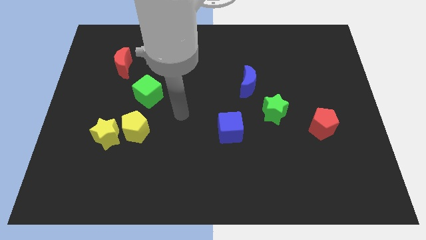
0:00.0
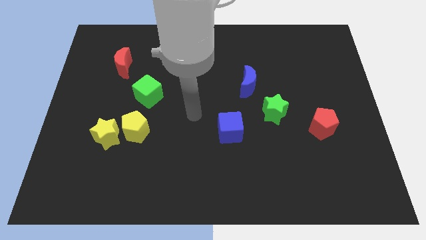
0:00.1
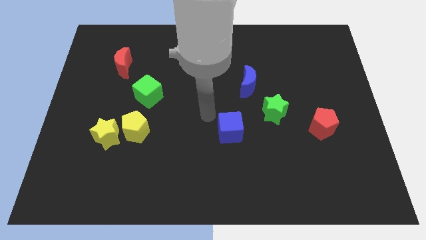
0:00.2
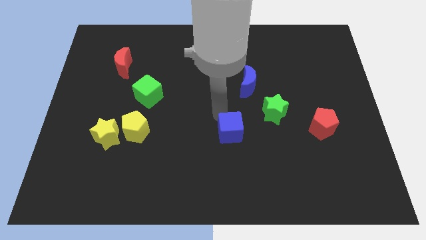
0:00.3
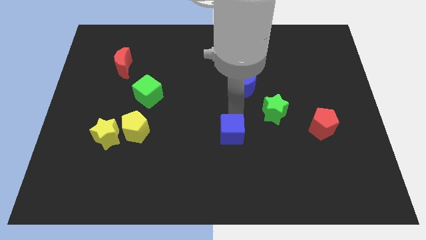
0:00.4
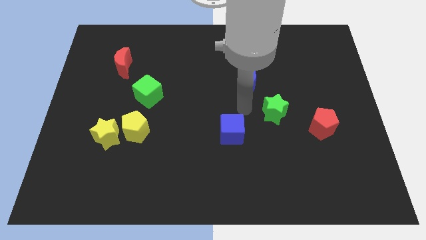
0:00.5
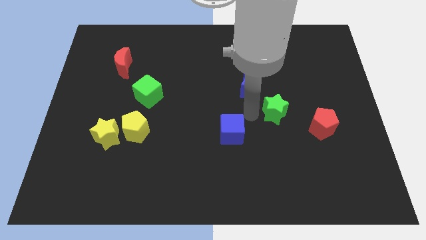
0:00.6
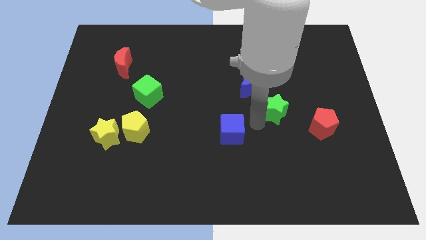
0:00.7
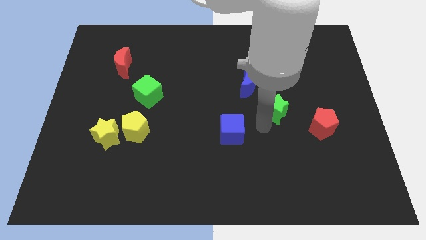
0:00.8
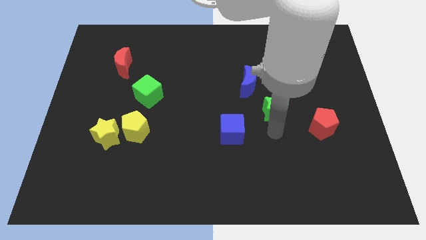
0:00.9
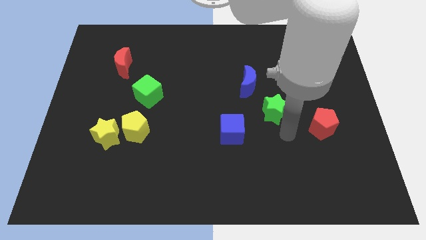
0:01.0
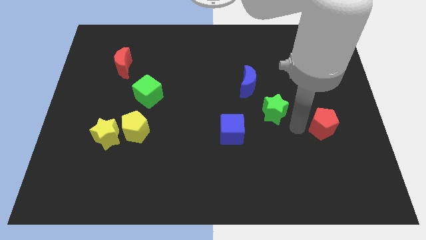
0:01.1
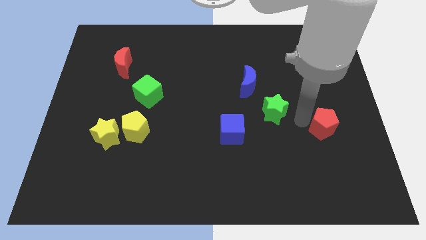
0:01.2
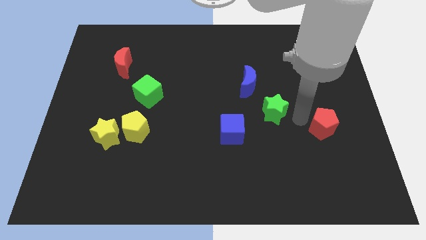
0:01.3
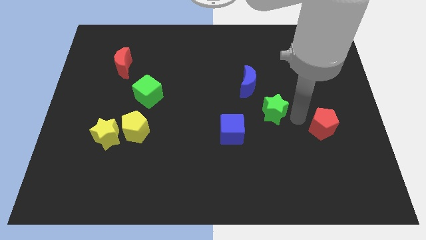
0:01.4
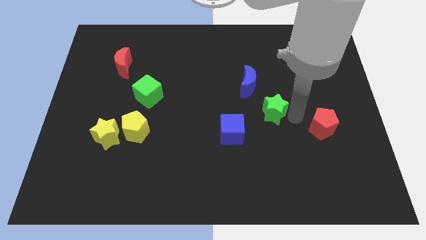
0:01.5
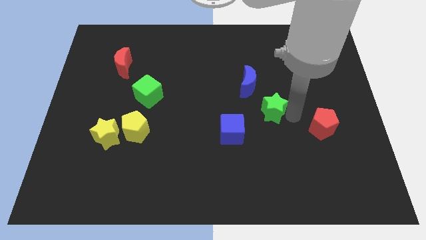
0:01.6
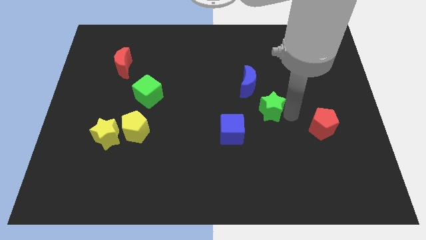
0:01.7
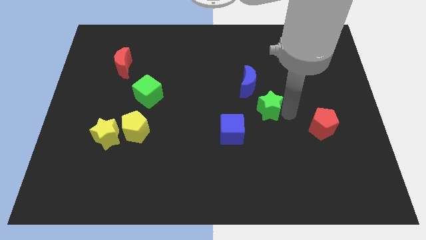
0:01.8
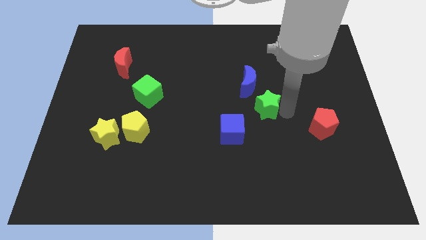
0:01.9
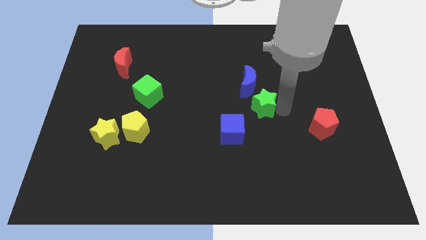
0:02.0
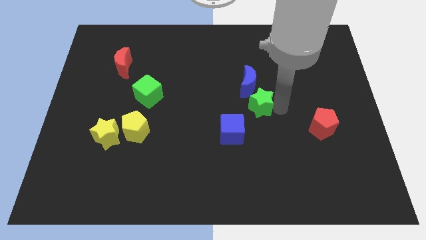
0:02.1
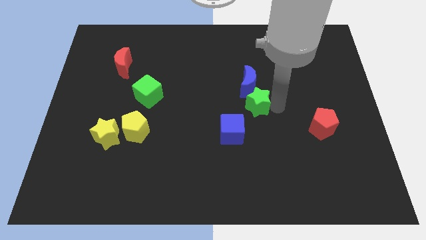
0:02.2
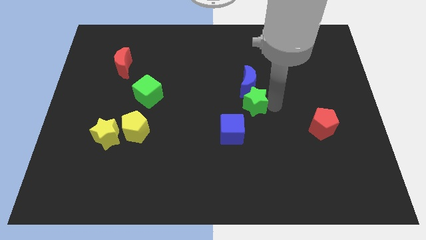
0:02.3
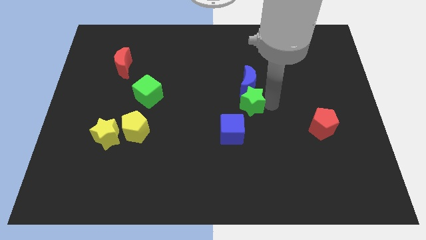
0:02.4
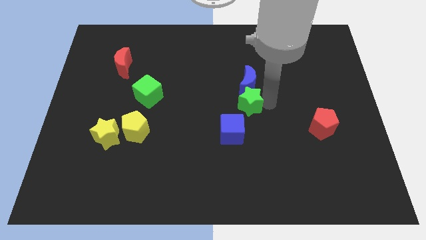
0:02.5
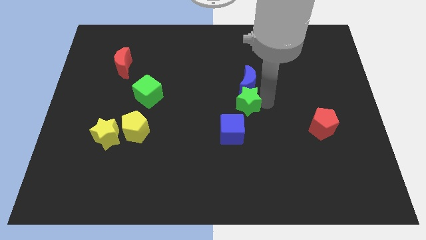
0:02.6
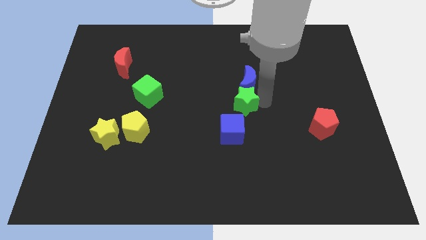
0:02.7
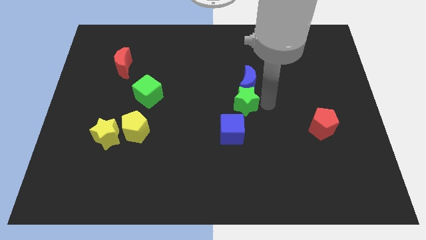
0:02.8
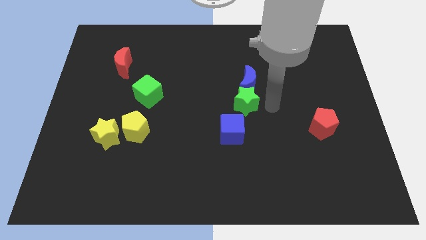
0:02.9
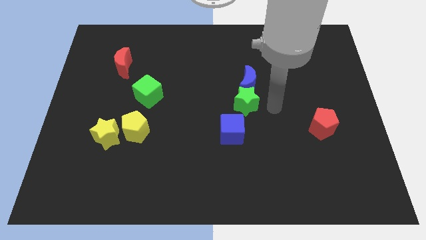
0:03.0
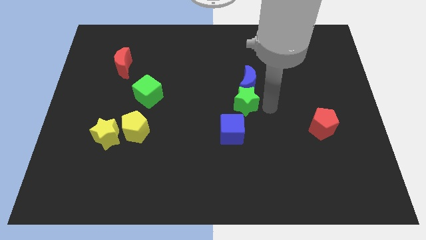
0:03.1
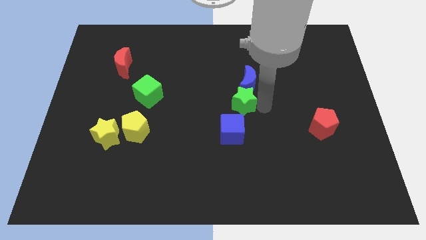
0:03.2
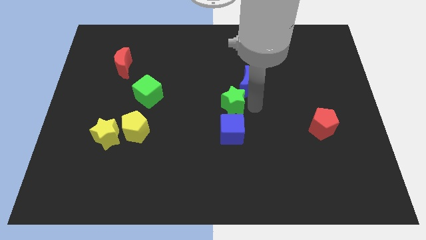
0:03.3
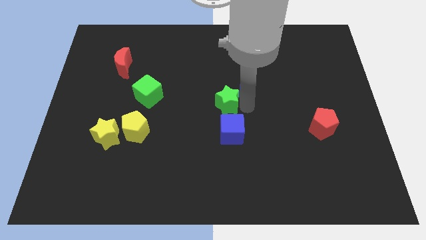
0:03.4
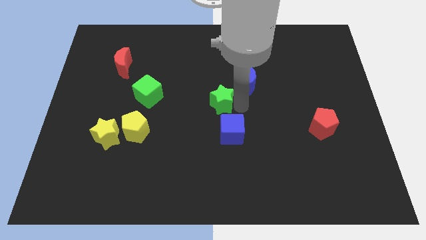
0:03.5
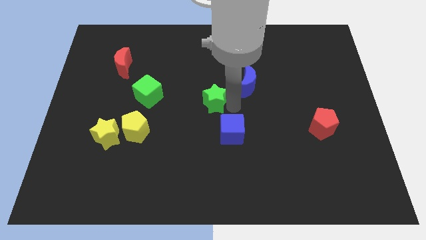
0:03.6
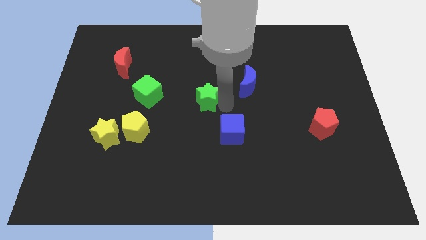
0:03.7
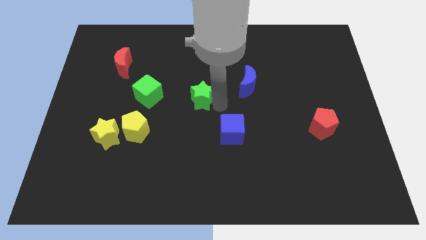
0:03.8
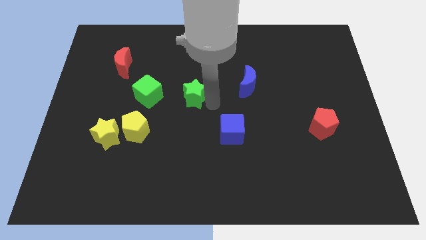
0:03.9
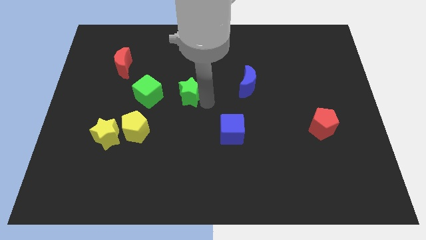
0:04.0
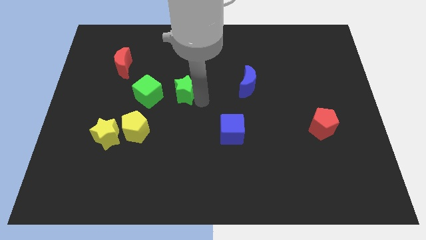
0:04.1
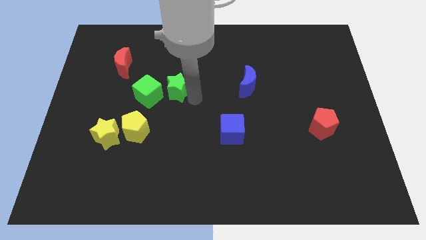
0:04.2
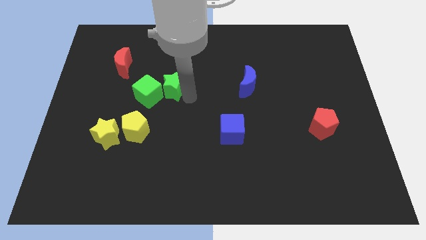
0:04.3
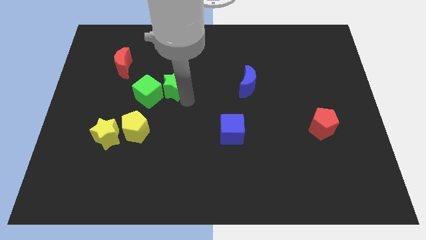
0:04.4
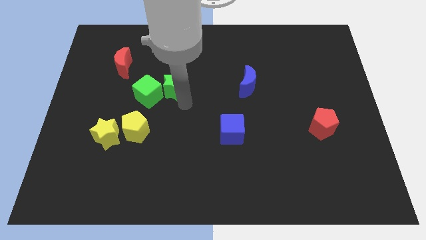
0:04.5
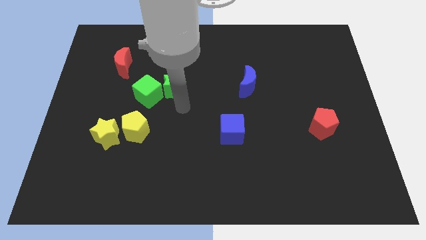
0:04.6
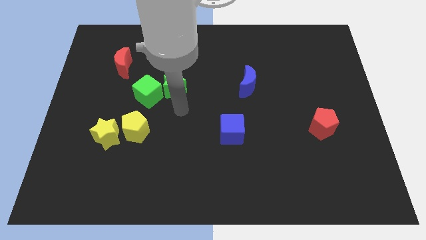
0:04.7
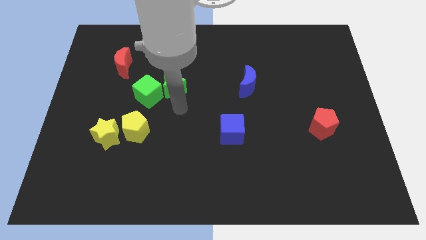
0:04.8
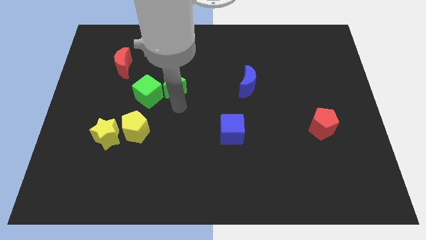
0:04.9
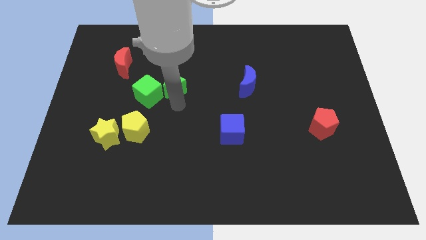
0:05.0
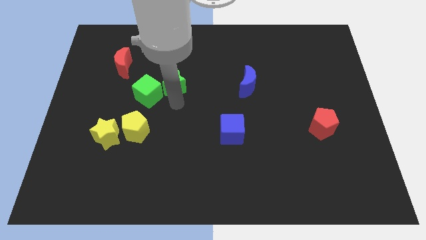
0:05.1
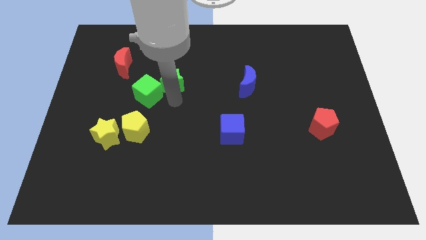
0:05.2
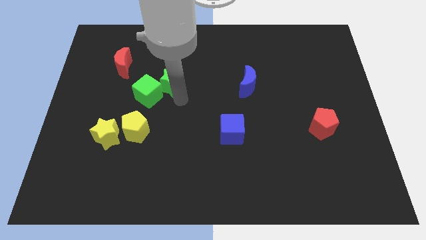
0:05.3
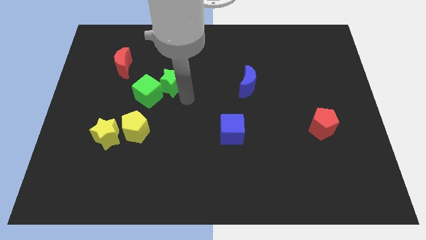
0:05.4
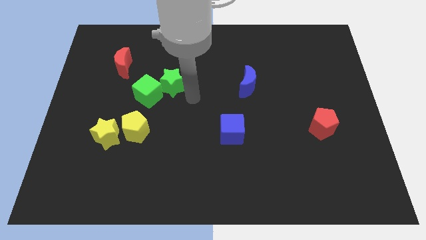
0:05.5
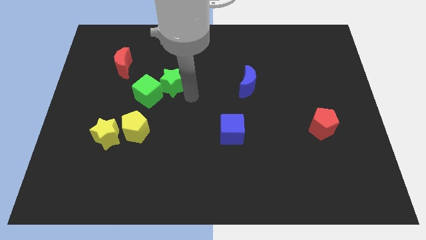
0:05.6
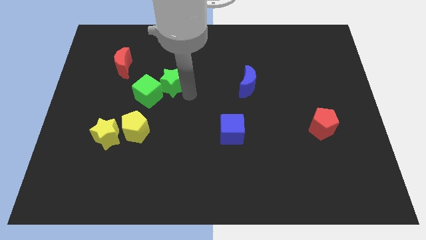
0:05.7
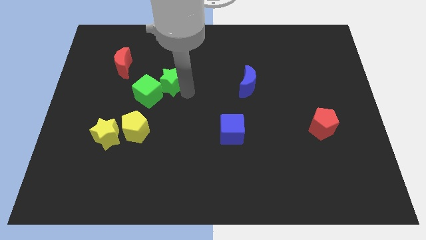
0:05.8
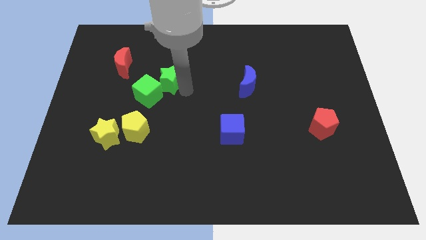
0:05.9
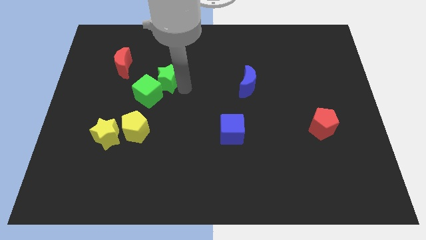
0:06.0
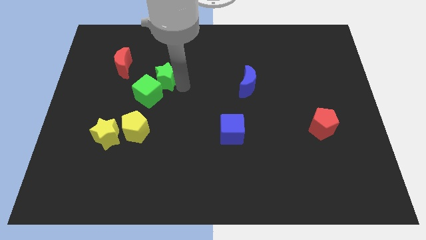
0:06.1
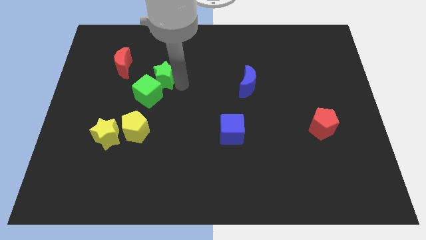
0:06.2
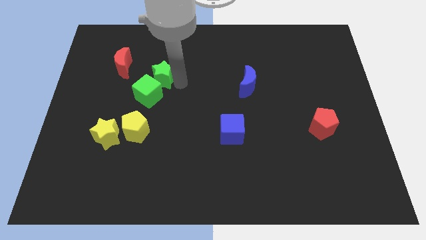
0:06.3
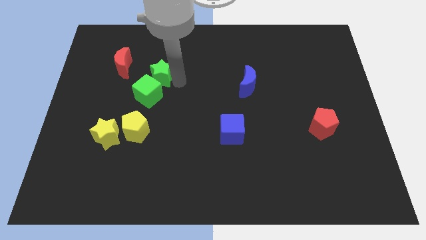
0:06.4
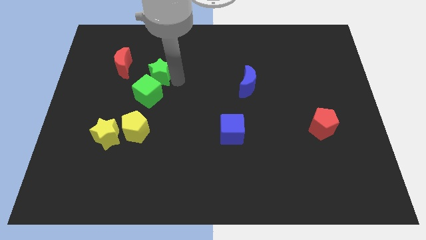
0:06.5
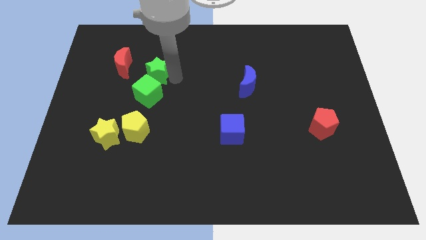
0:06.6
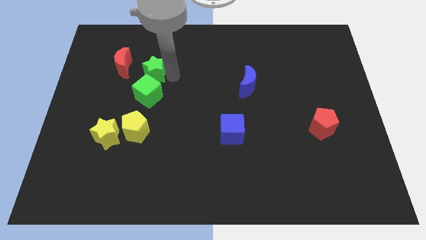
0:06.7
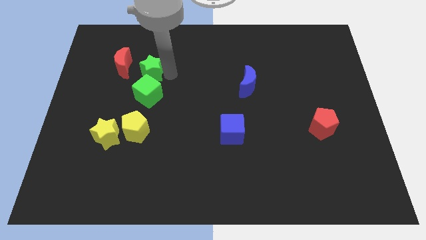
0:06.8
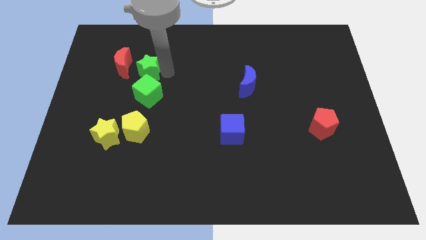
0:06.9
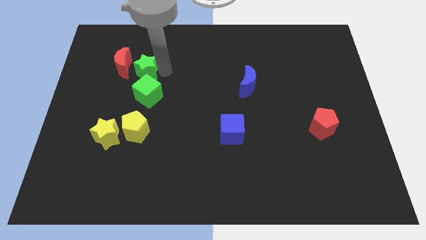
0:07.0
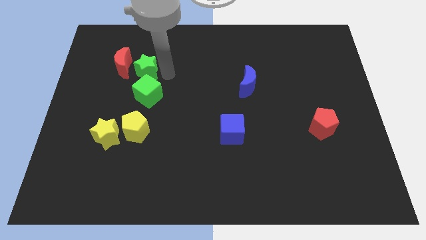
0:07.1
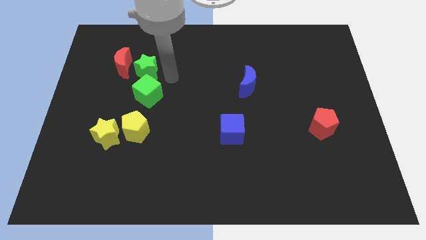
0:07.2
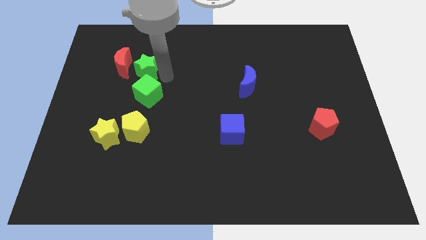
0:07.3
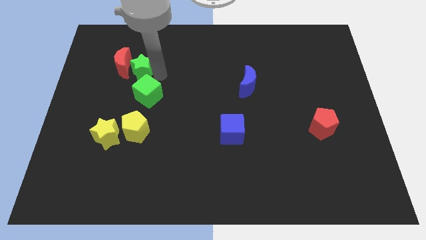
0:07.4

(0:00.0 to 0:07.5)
move the green star to the red moon

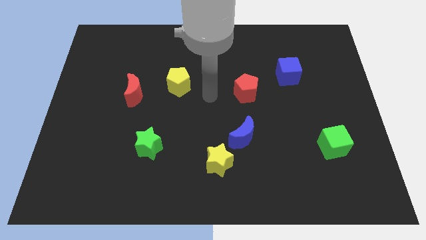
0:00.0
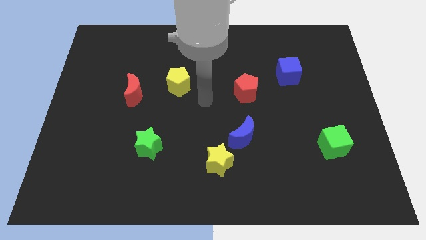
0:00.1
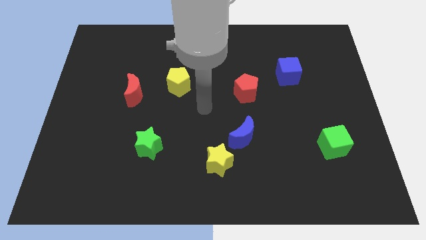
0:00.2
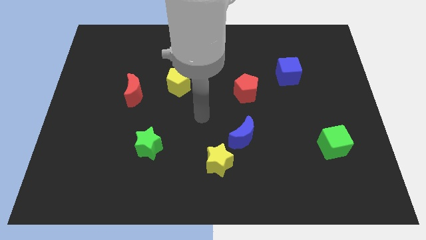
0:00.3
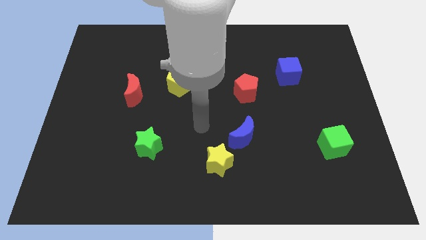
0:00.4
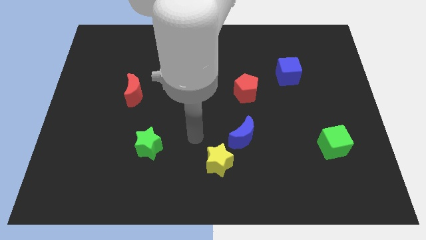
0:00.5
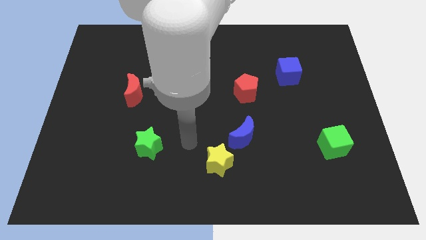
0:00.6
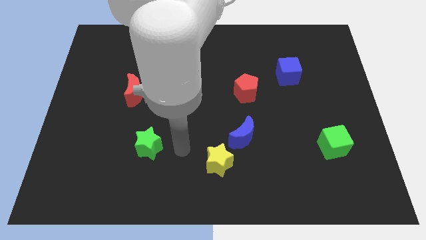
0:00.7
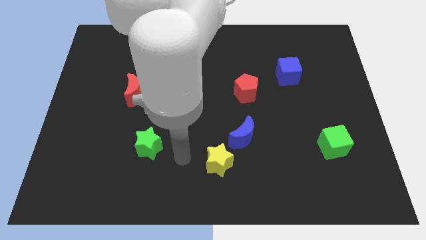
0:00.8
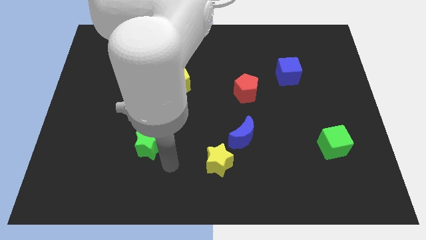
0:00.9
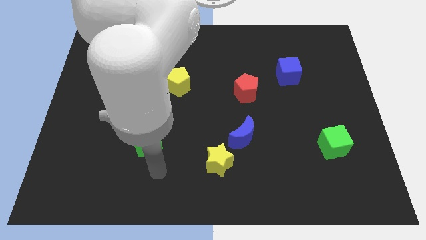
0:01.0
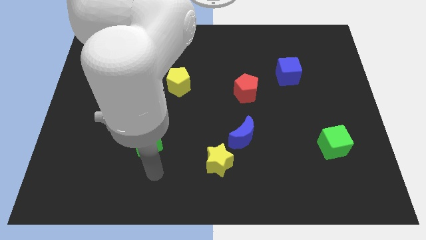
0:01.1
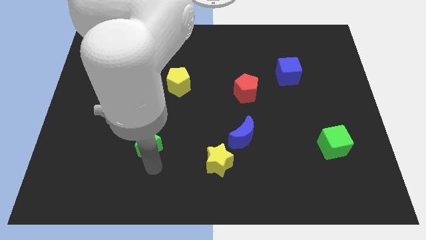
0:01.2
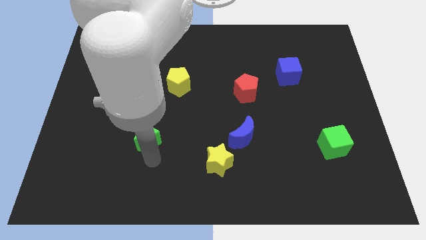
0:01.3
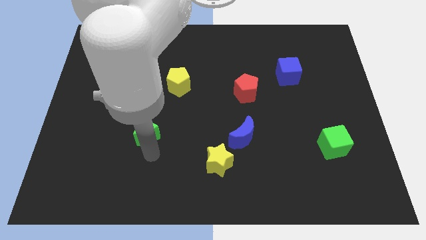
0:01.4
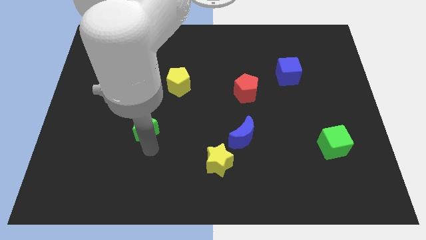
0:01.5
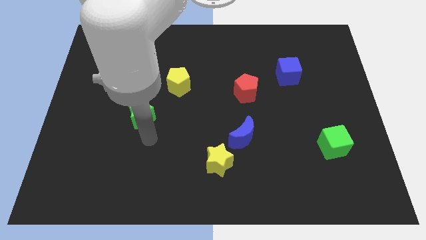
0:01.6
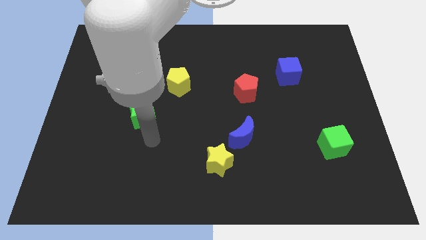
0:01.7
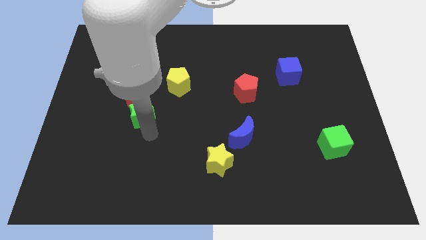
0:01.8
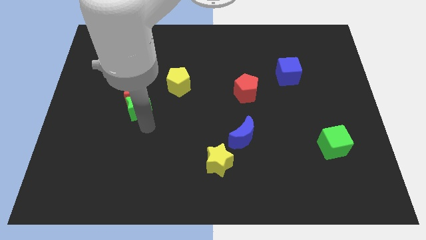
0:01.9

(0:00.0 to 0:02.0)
slide the green star close to the red moon
